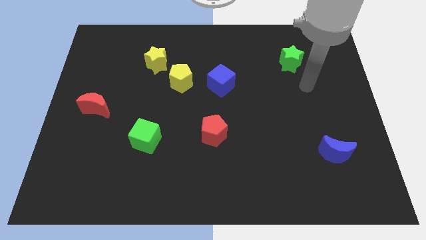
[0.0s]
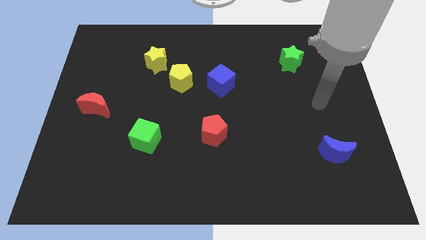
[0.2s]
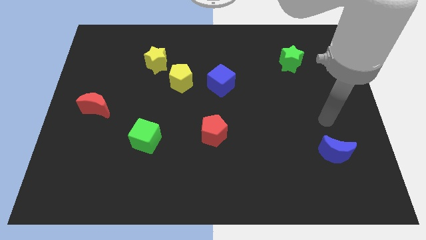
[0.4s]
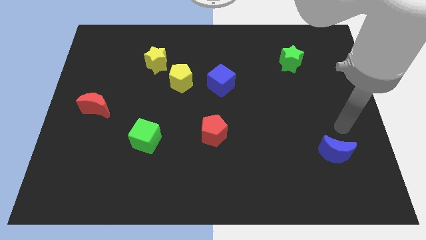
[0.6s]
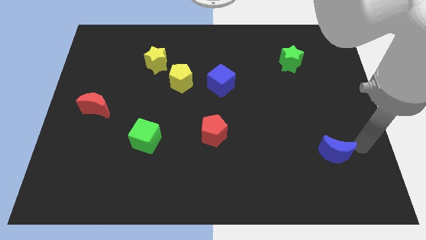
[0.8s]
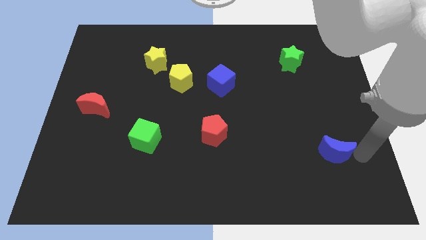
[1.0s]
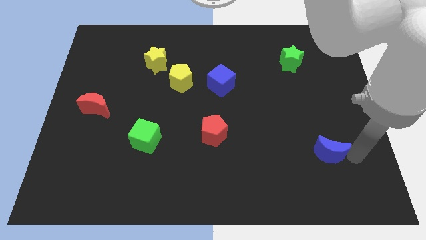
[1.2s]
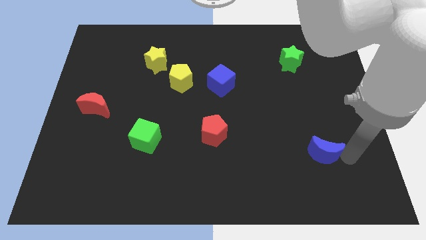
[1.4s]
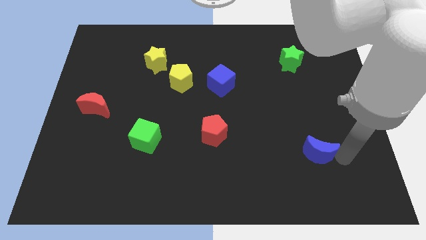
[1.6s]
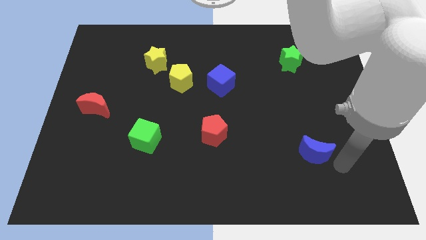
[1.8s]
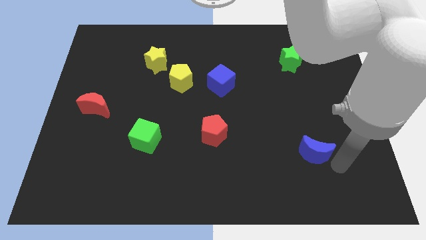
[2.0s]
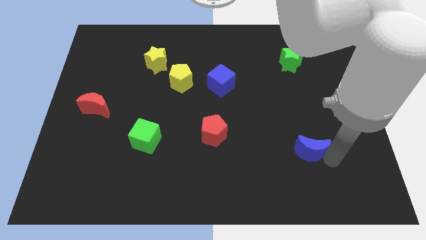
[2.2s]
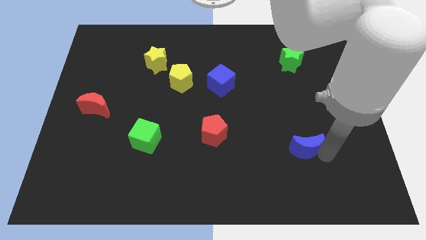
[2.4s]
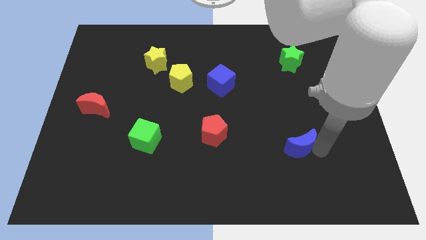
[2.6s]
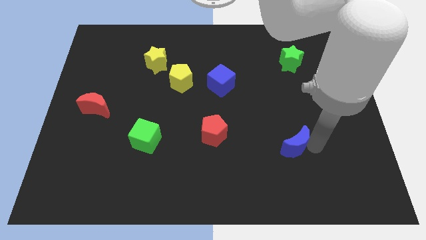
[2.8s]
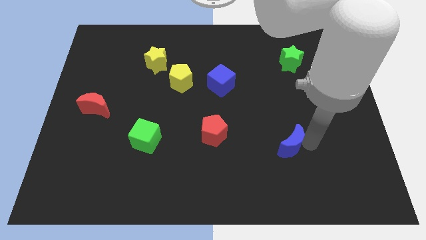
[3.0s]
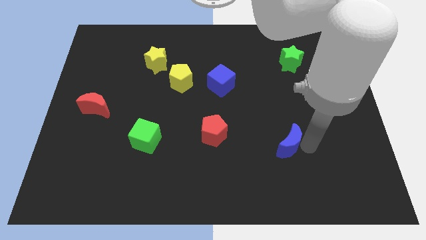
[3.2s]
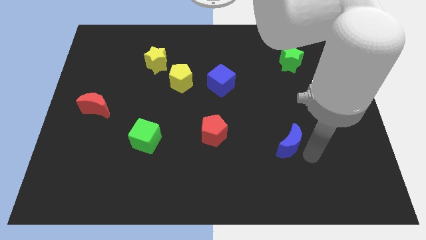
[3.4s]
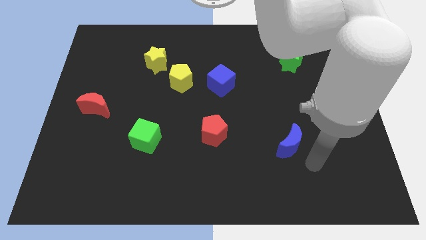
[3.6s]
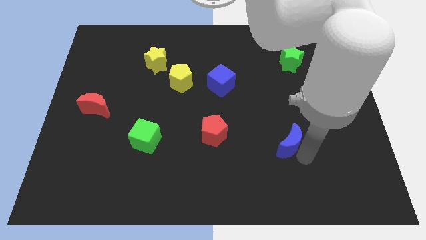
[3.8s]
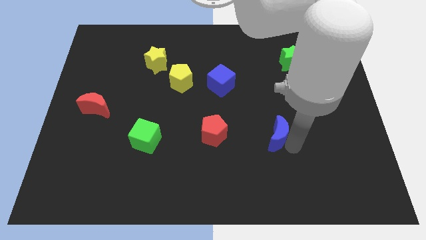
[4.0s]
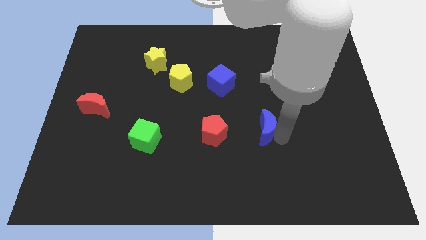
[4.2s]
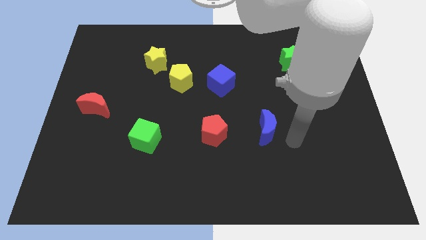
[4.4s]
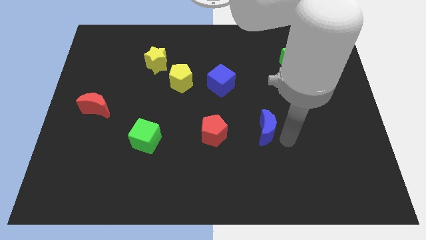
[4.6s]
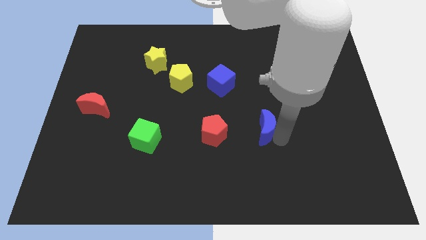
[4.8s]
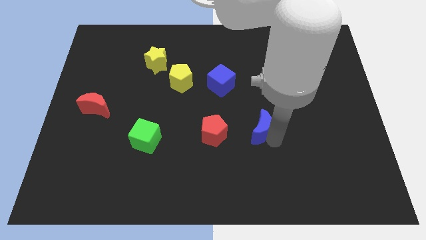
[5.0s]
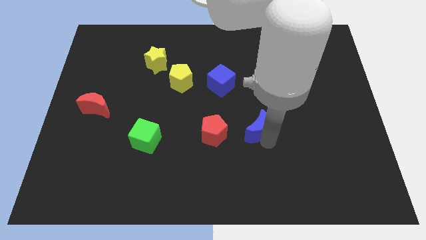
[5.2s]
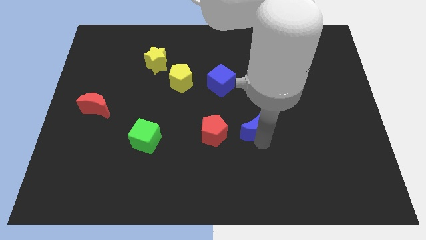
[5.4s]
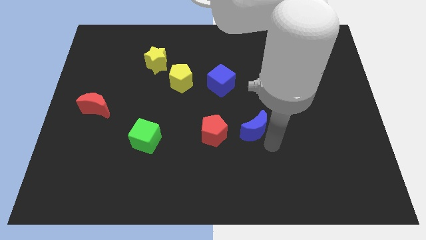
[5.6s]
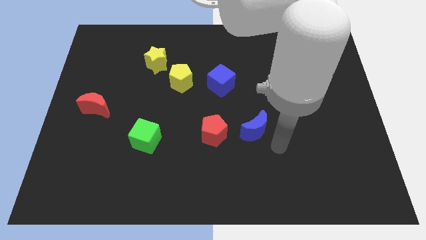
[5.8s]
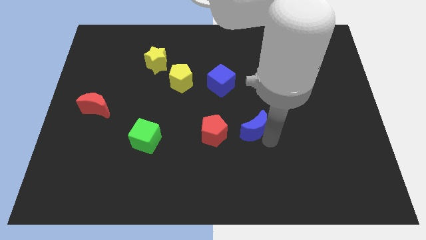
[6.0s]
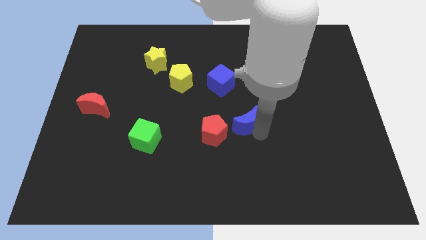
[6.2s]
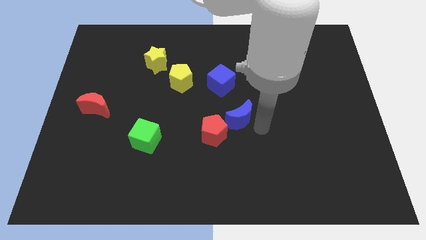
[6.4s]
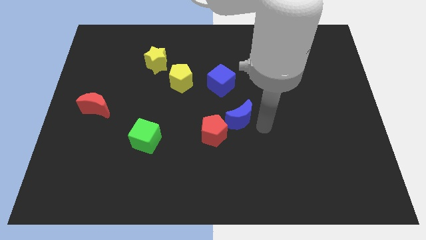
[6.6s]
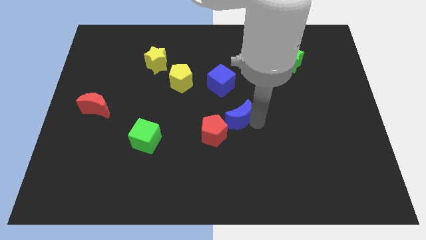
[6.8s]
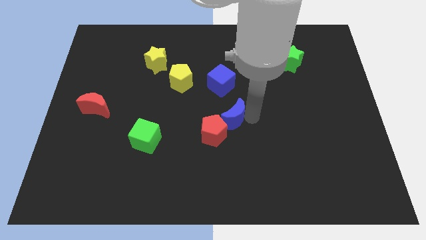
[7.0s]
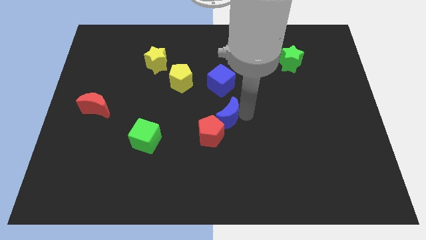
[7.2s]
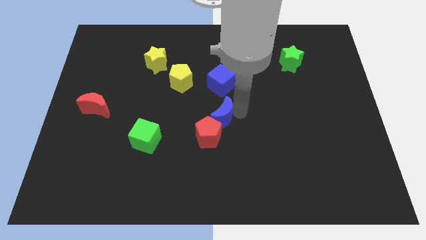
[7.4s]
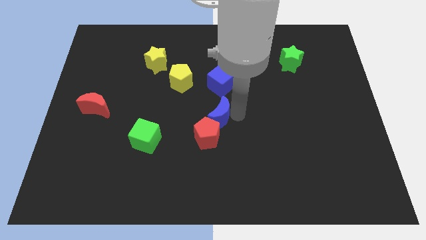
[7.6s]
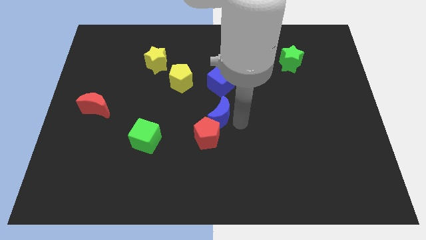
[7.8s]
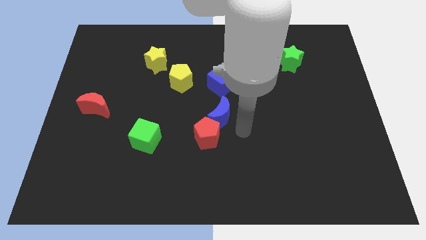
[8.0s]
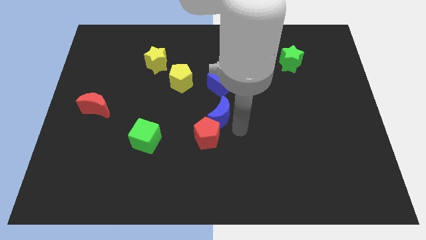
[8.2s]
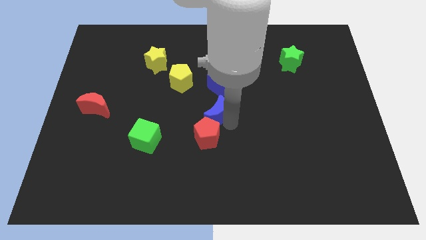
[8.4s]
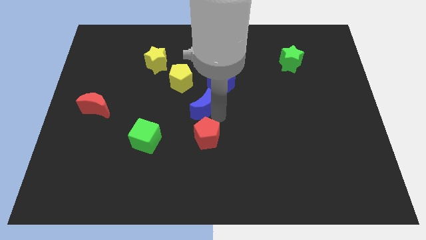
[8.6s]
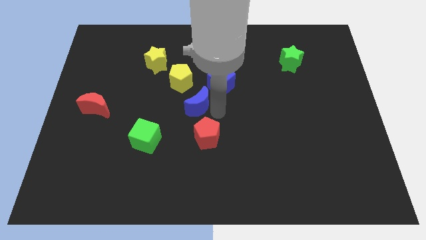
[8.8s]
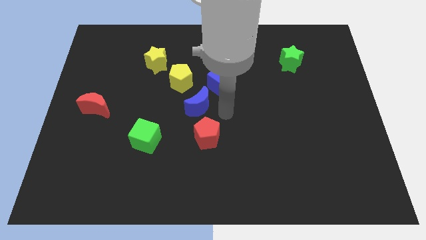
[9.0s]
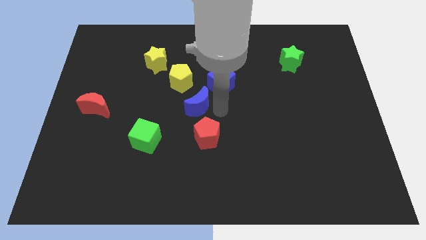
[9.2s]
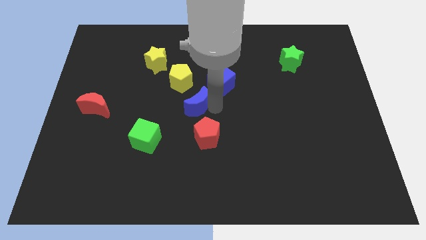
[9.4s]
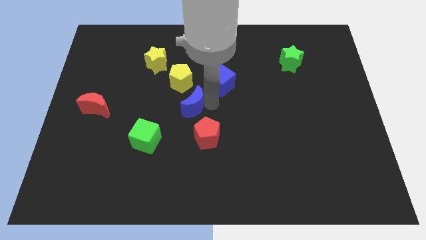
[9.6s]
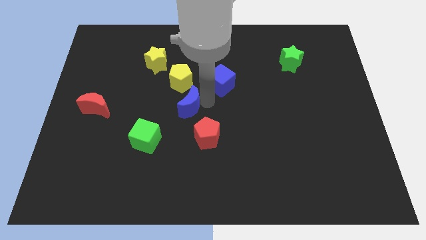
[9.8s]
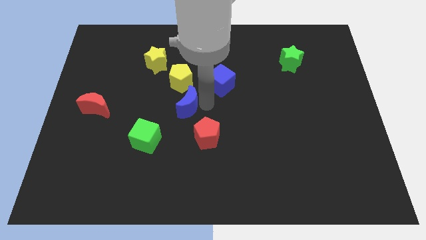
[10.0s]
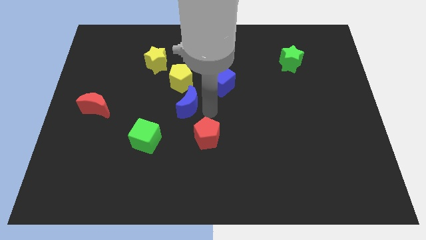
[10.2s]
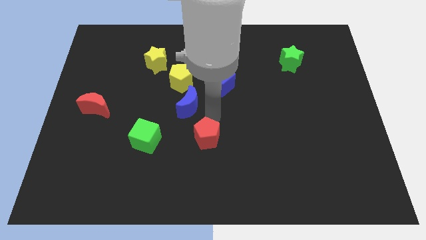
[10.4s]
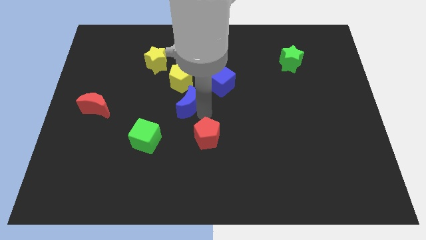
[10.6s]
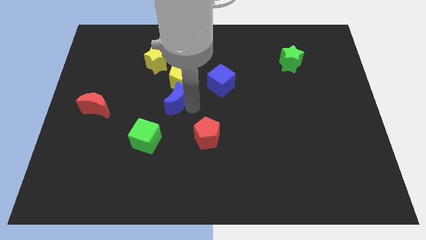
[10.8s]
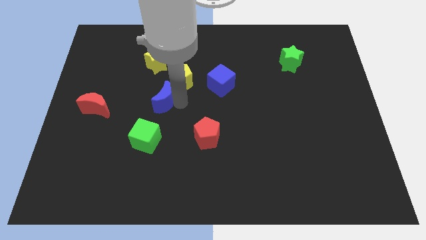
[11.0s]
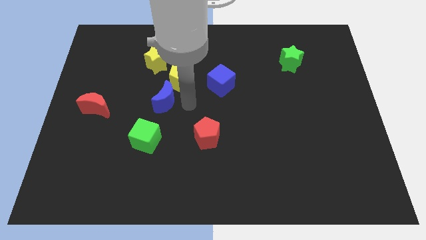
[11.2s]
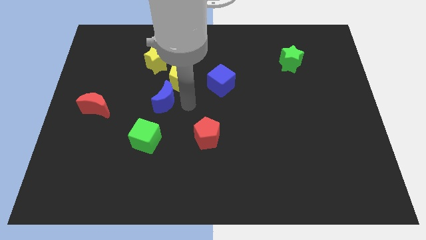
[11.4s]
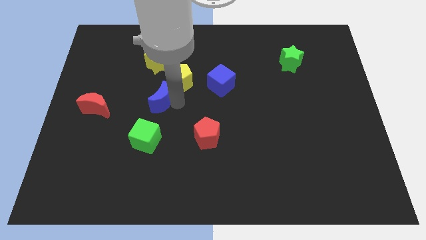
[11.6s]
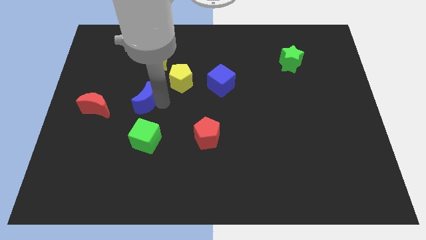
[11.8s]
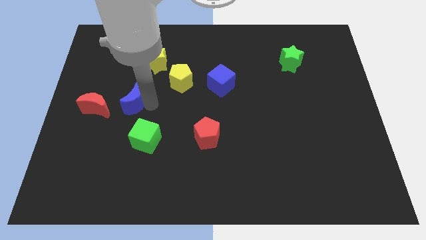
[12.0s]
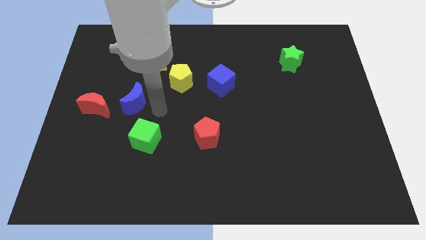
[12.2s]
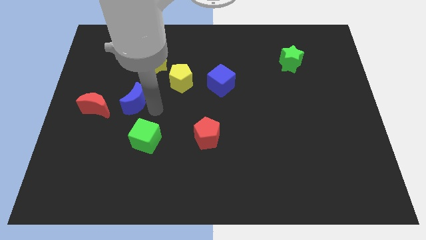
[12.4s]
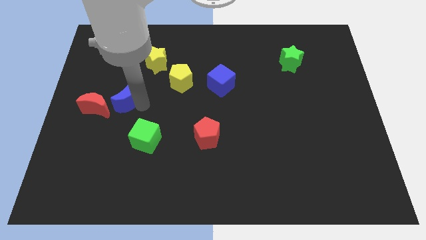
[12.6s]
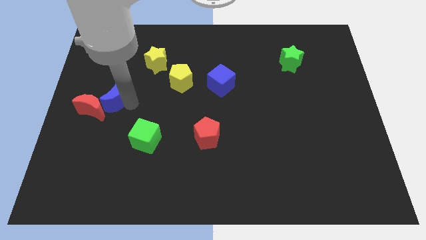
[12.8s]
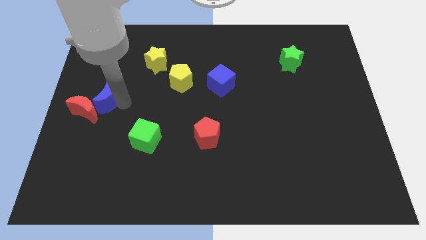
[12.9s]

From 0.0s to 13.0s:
slide the blue moon to the left side

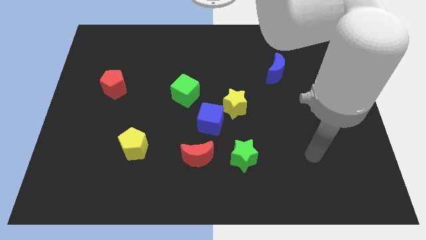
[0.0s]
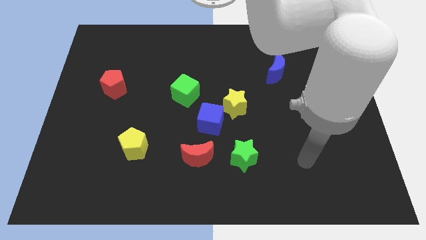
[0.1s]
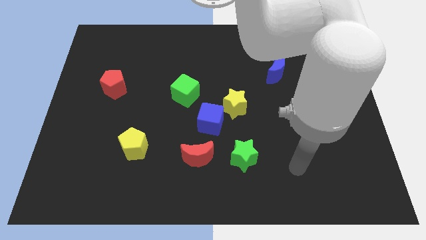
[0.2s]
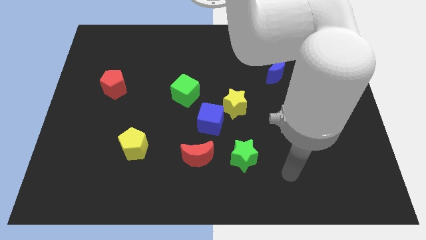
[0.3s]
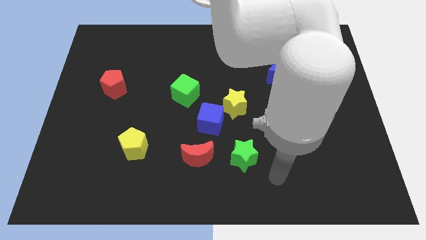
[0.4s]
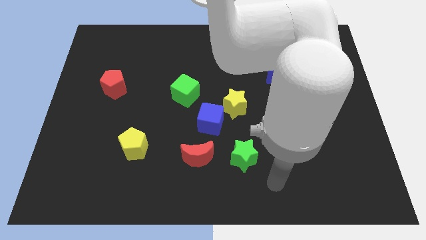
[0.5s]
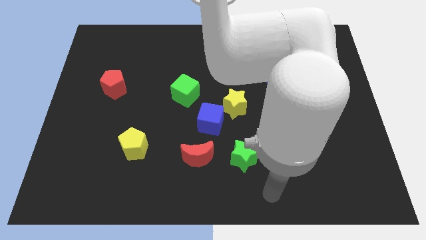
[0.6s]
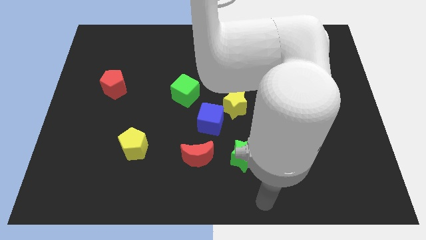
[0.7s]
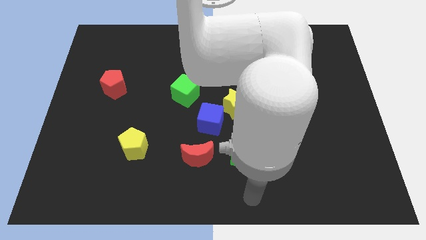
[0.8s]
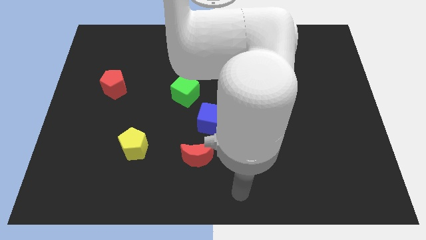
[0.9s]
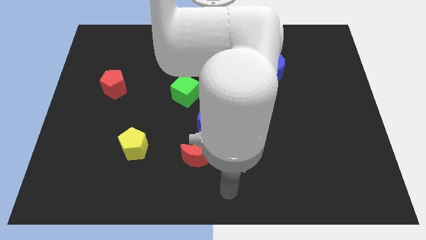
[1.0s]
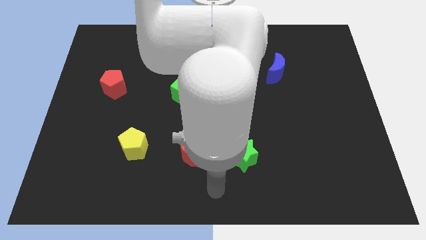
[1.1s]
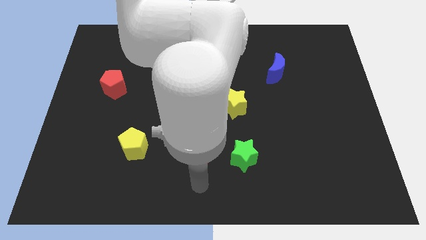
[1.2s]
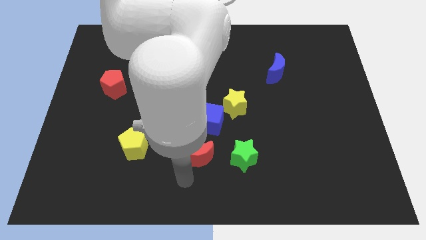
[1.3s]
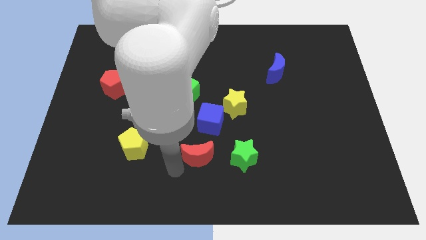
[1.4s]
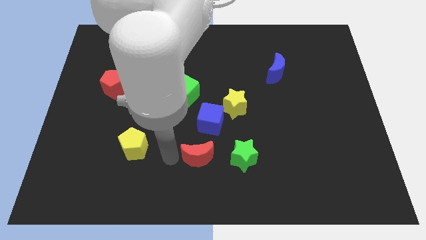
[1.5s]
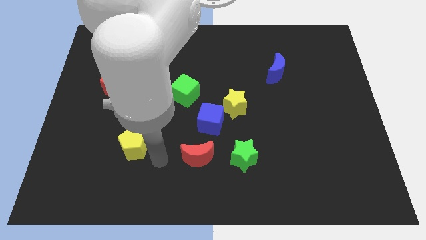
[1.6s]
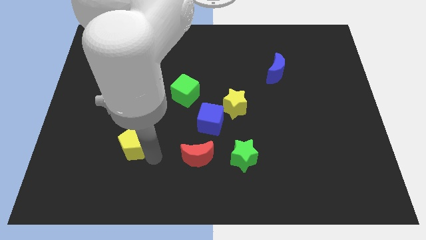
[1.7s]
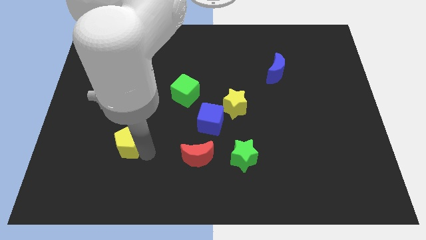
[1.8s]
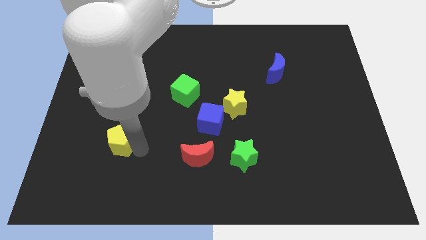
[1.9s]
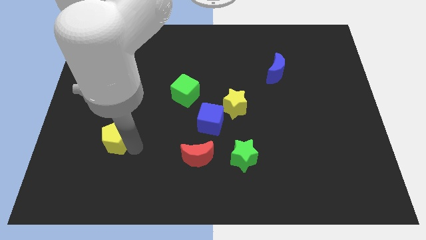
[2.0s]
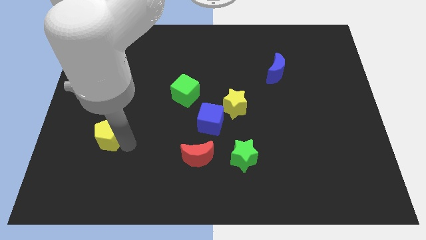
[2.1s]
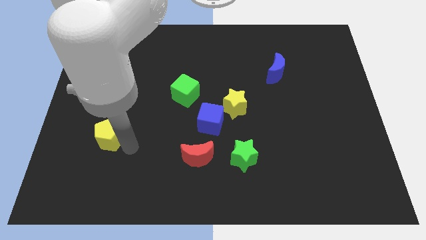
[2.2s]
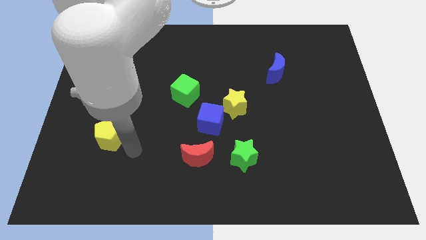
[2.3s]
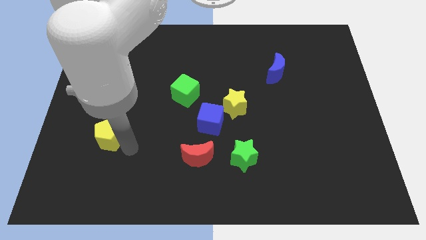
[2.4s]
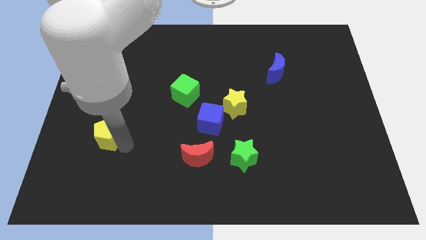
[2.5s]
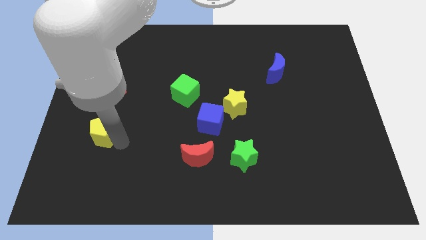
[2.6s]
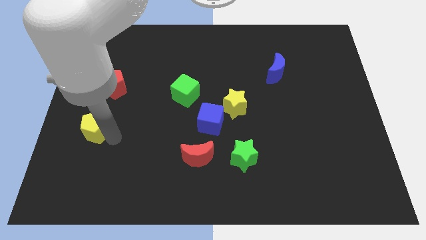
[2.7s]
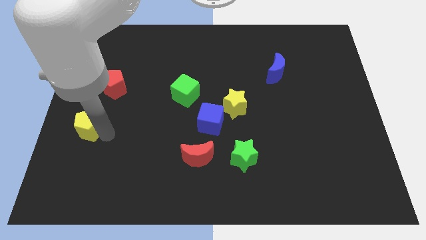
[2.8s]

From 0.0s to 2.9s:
push the yellow pentagon to the center left
